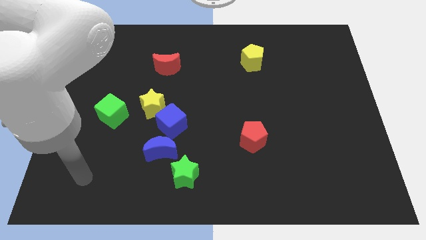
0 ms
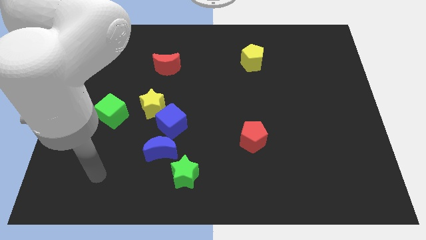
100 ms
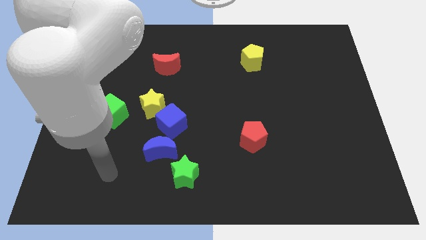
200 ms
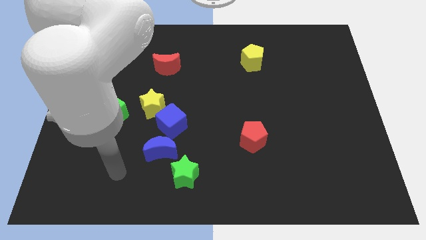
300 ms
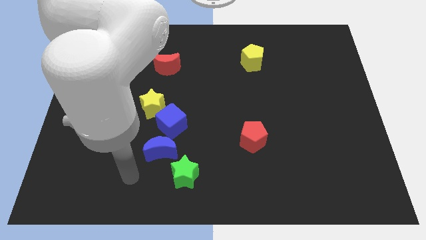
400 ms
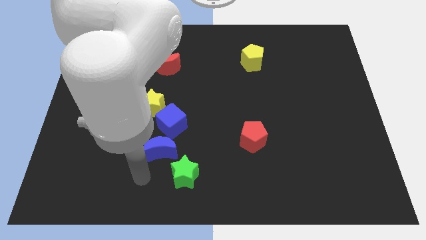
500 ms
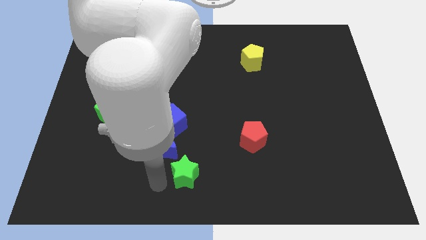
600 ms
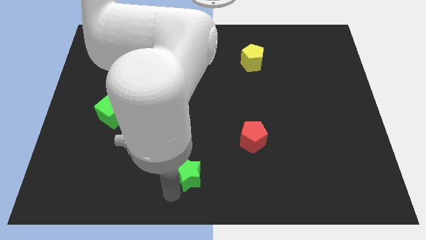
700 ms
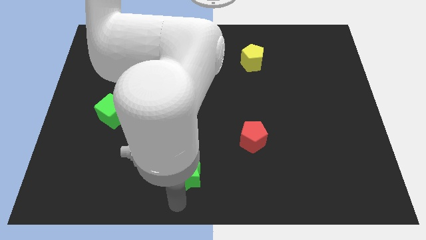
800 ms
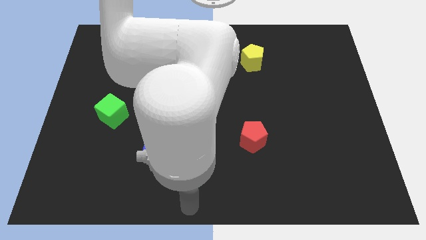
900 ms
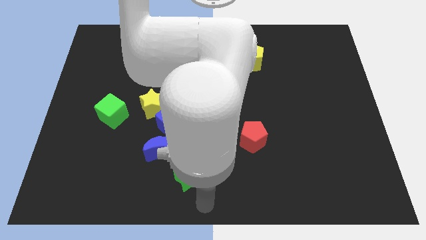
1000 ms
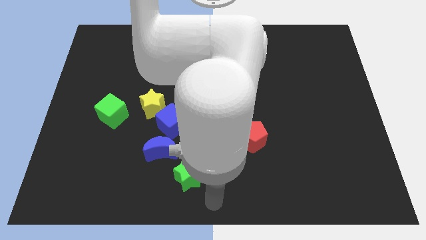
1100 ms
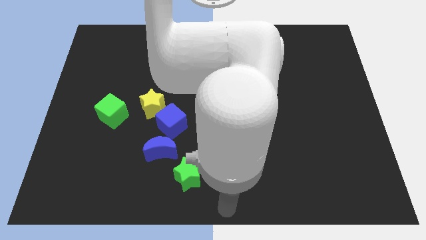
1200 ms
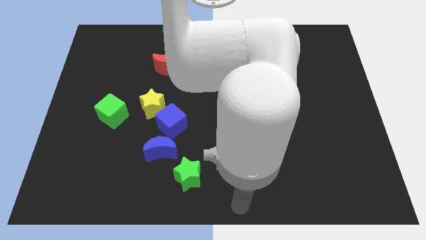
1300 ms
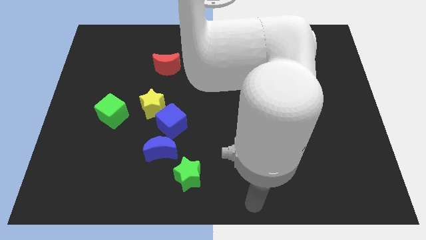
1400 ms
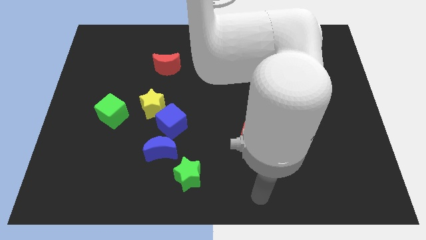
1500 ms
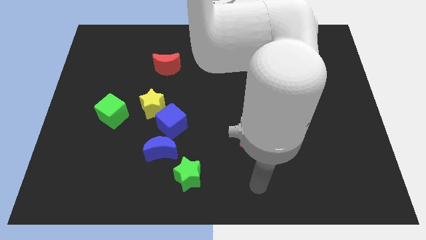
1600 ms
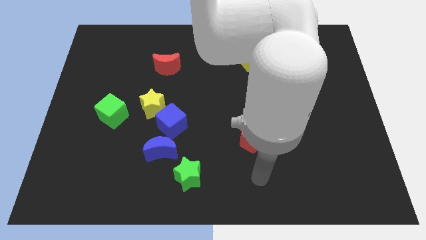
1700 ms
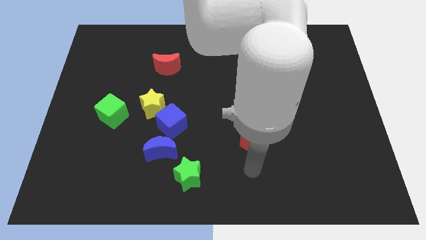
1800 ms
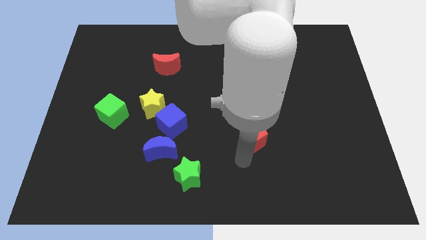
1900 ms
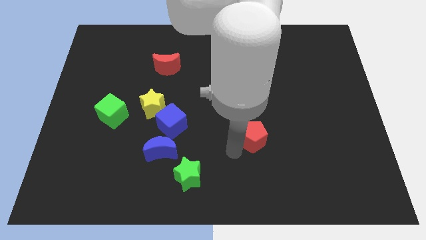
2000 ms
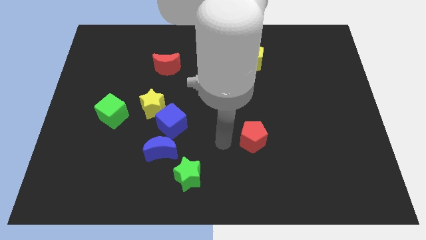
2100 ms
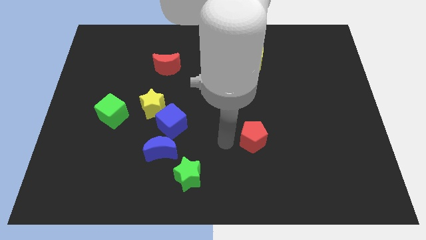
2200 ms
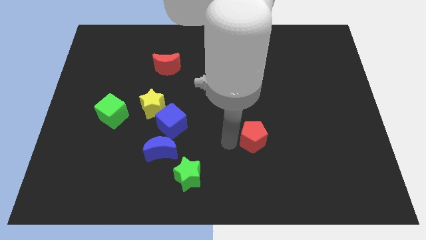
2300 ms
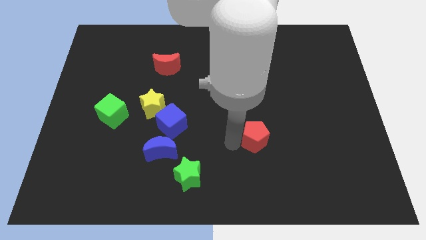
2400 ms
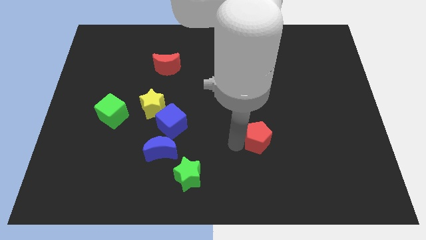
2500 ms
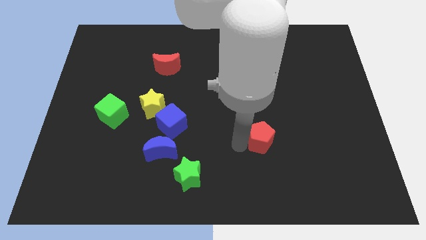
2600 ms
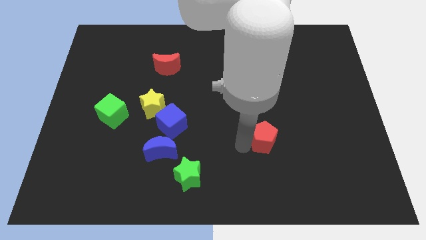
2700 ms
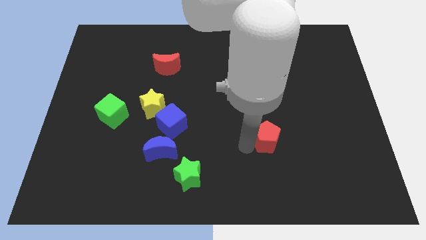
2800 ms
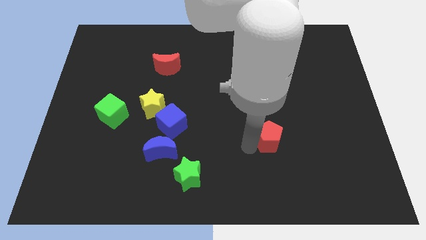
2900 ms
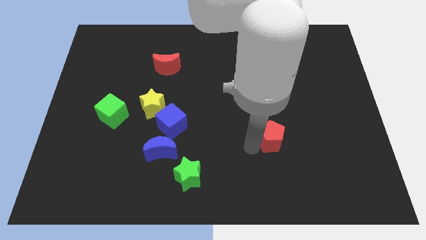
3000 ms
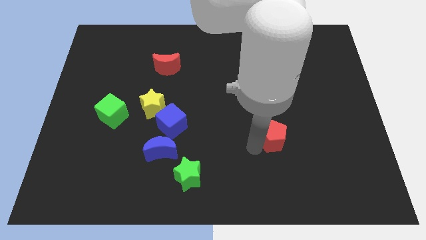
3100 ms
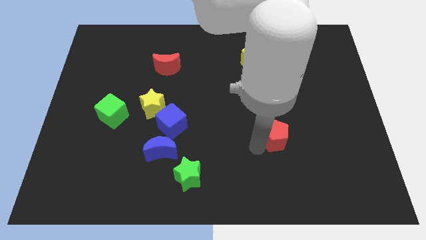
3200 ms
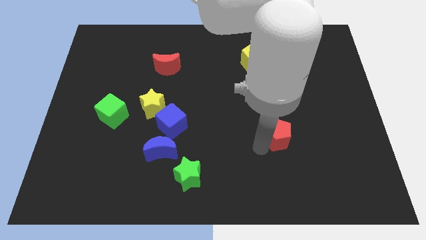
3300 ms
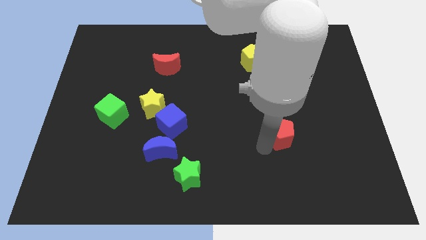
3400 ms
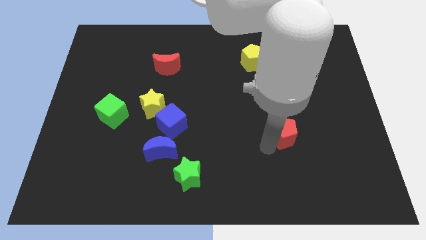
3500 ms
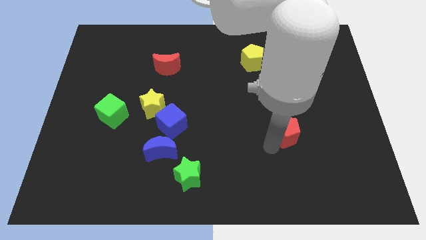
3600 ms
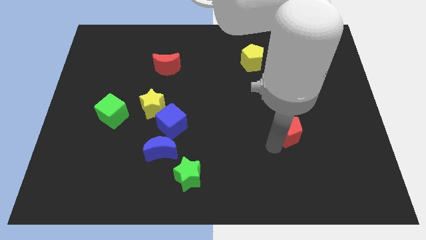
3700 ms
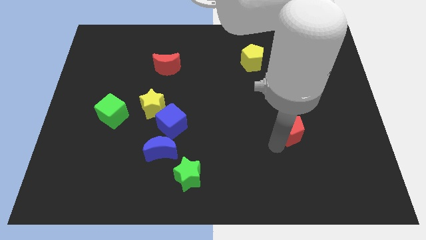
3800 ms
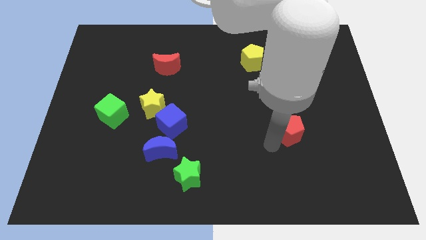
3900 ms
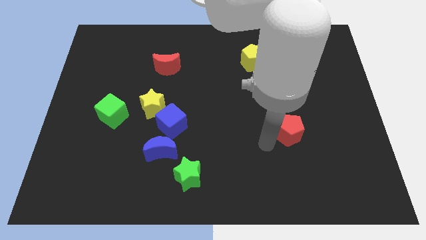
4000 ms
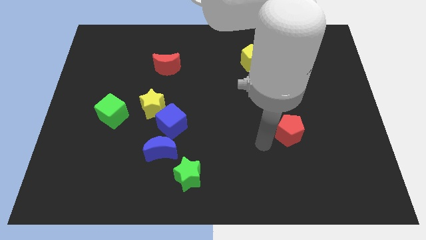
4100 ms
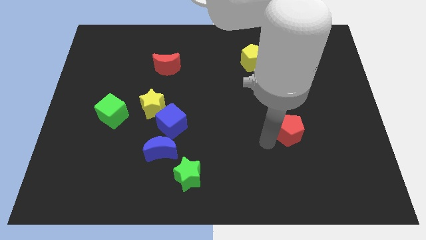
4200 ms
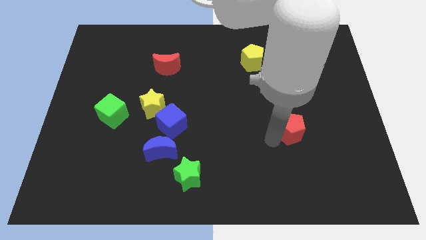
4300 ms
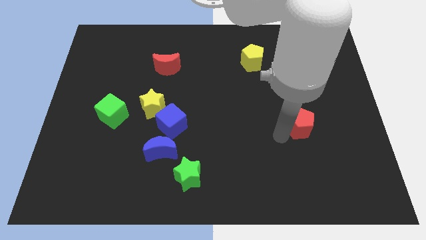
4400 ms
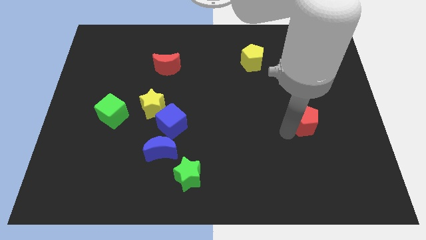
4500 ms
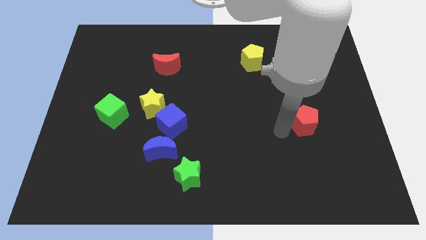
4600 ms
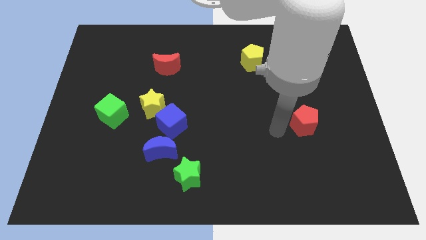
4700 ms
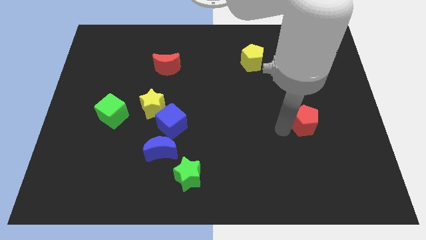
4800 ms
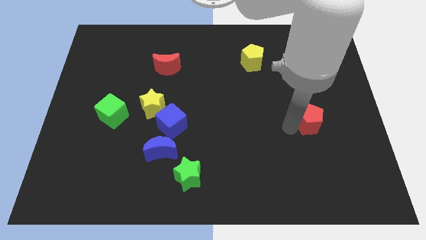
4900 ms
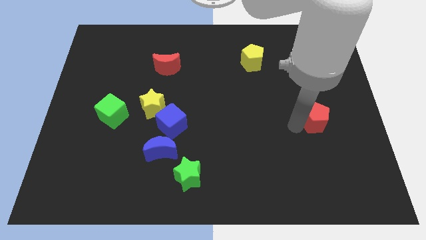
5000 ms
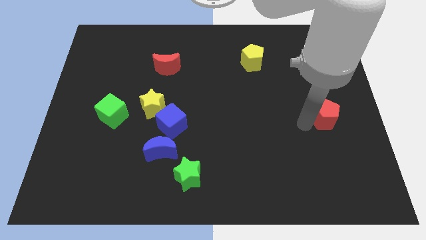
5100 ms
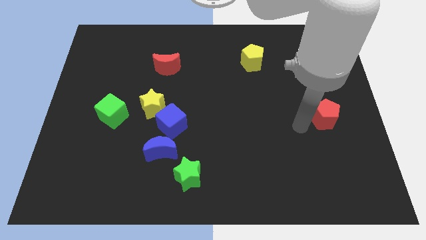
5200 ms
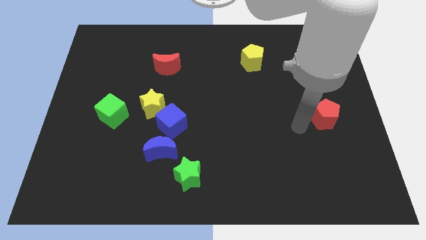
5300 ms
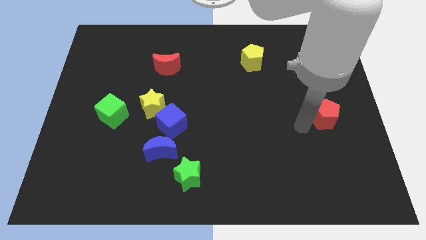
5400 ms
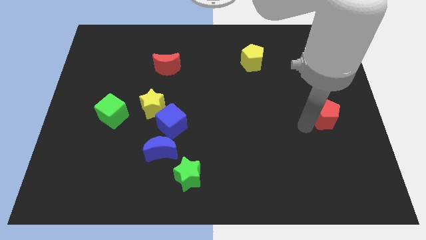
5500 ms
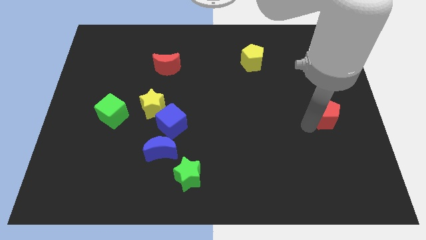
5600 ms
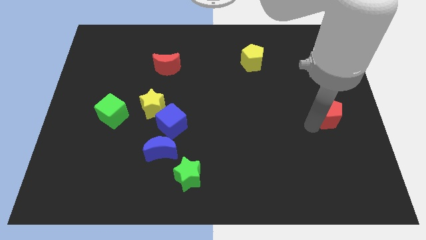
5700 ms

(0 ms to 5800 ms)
push the red pentagon to the right side of the board

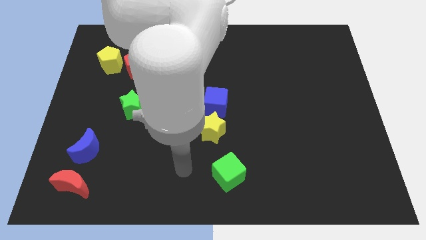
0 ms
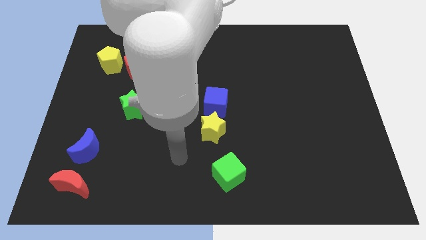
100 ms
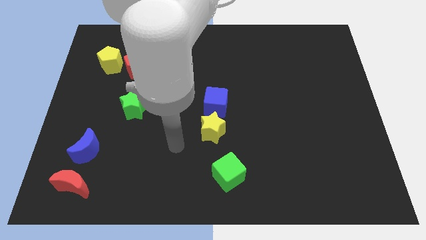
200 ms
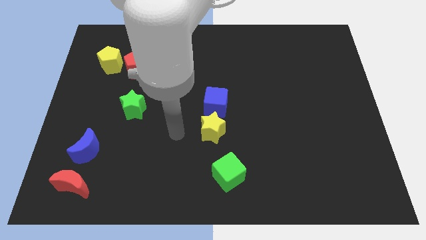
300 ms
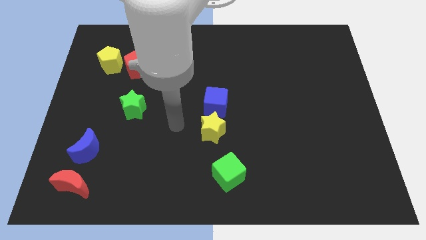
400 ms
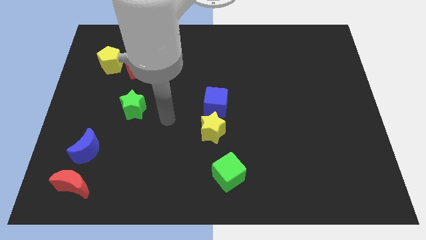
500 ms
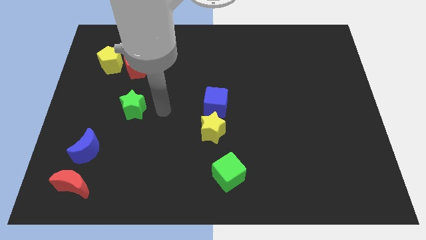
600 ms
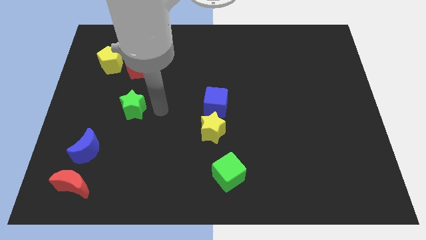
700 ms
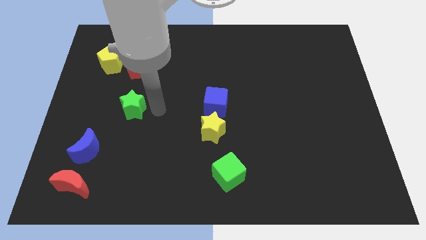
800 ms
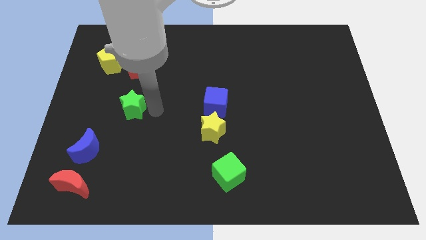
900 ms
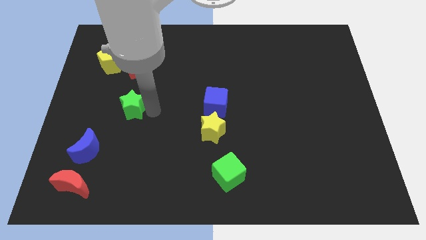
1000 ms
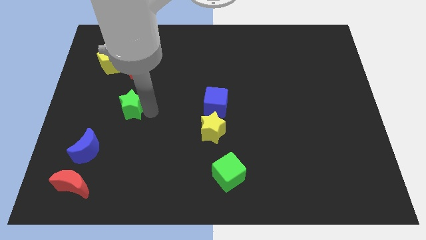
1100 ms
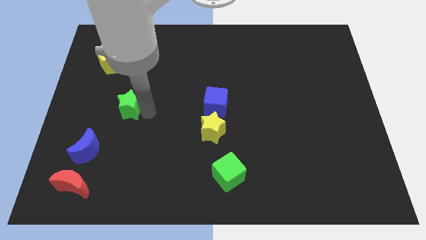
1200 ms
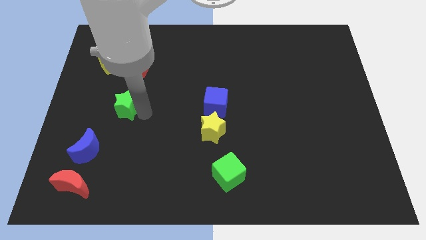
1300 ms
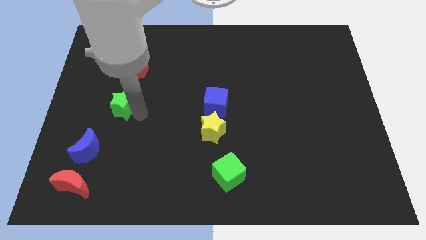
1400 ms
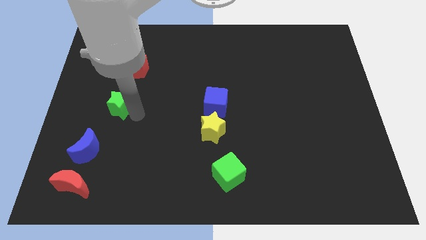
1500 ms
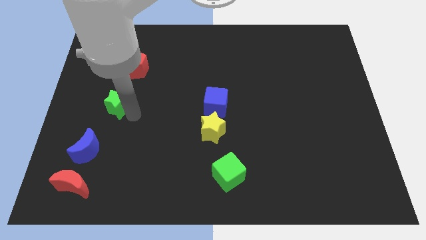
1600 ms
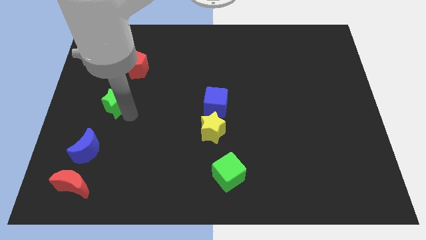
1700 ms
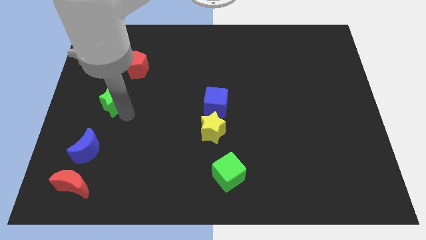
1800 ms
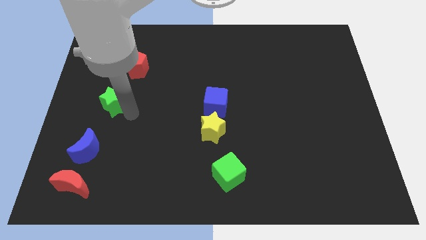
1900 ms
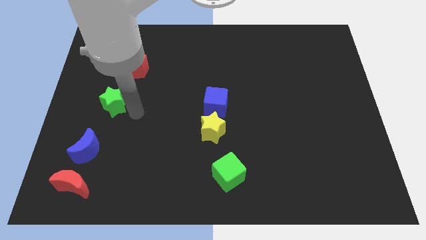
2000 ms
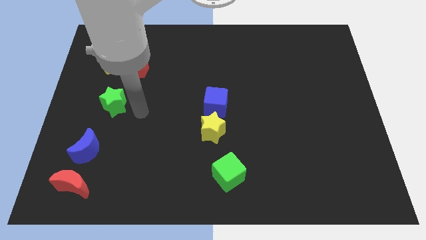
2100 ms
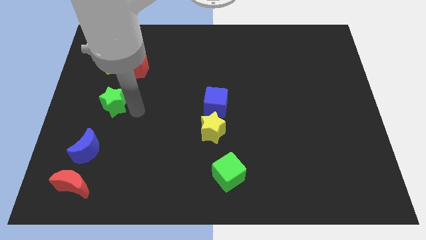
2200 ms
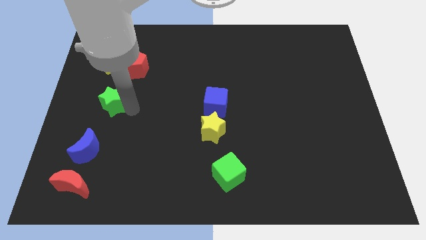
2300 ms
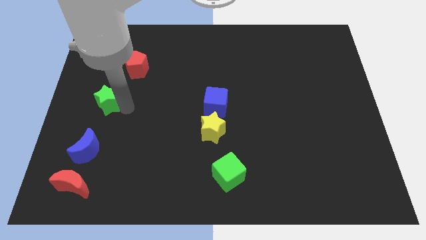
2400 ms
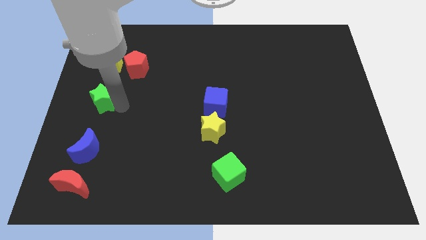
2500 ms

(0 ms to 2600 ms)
put the green star to the center left
